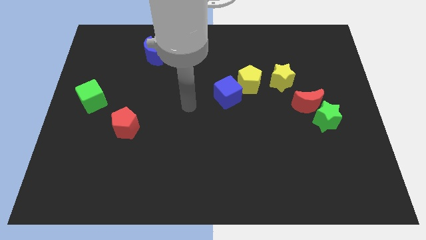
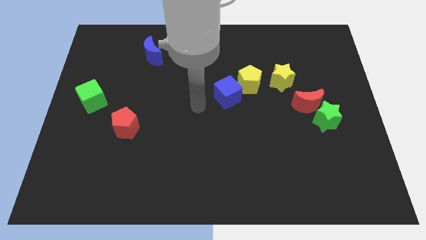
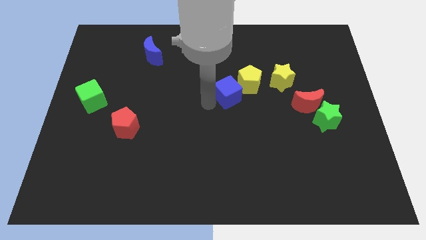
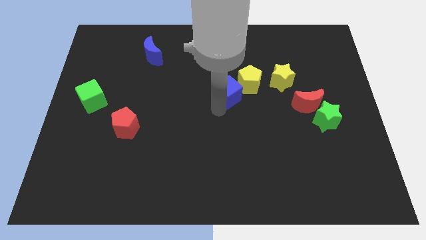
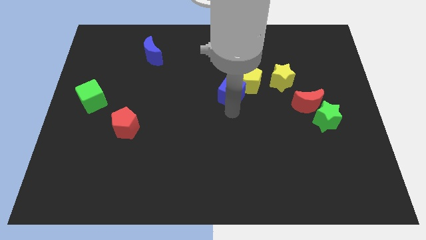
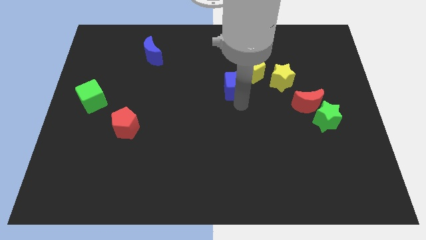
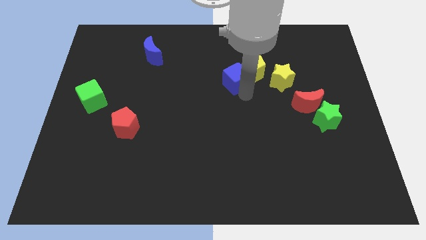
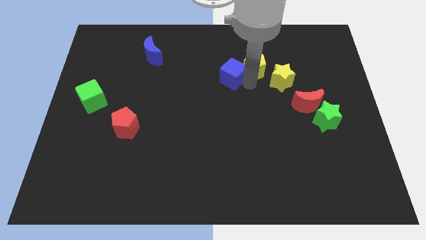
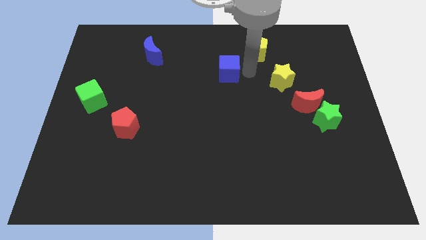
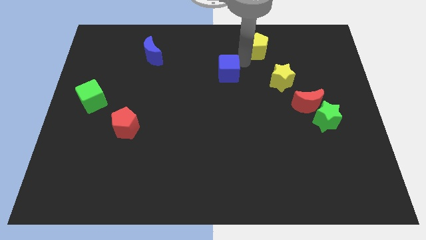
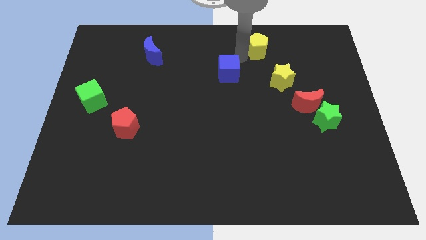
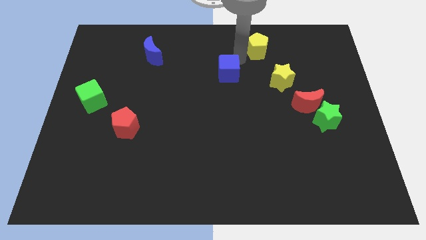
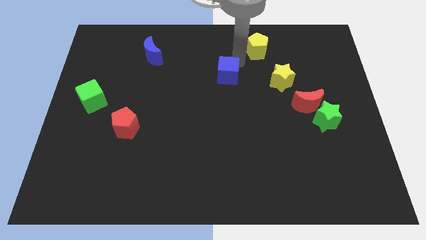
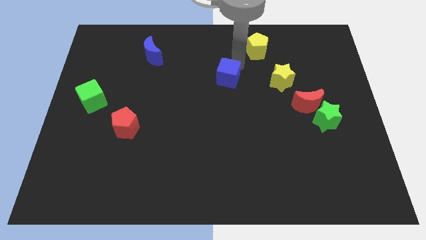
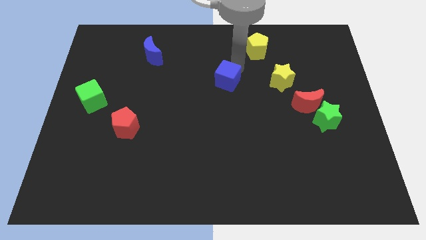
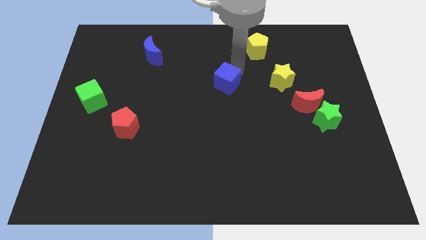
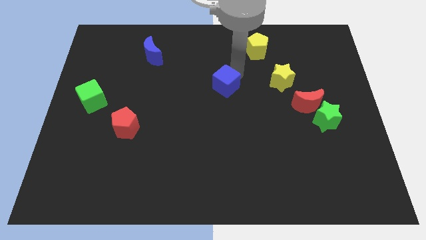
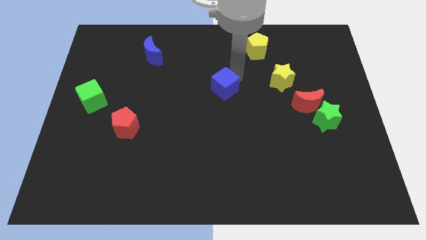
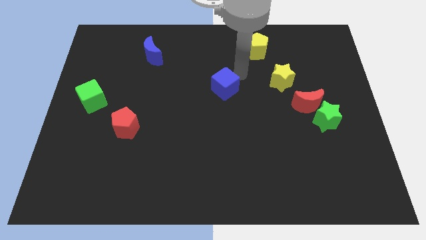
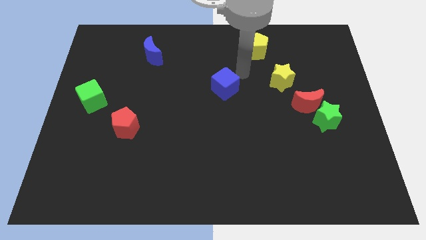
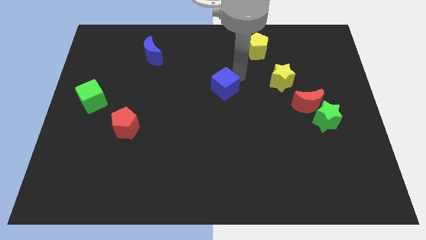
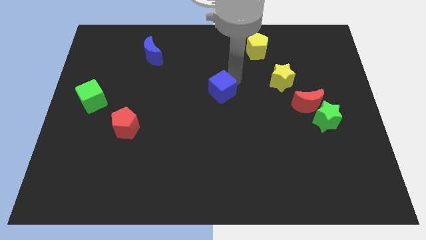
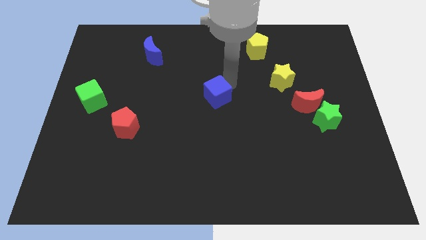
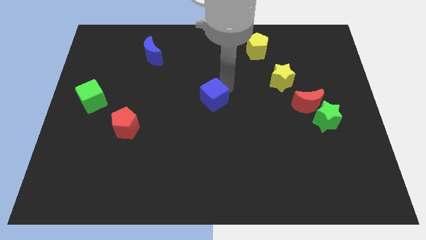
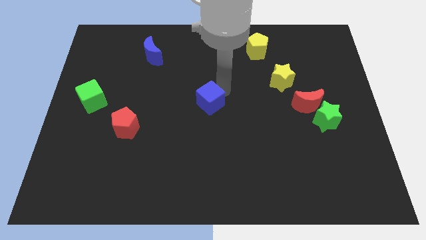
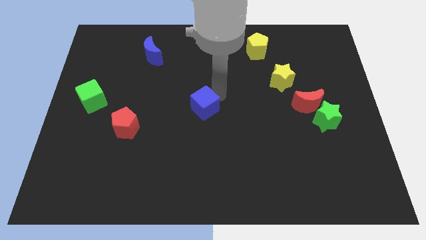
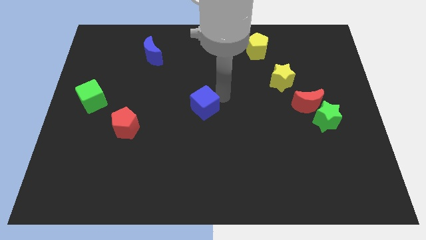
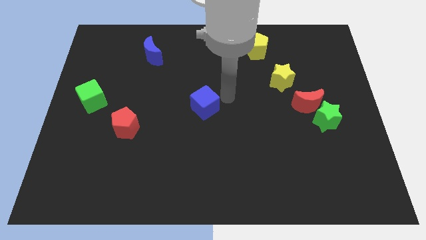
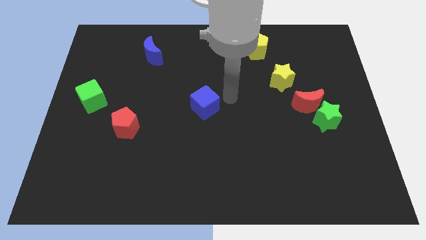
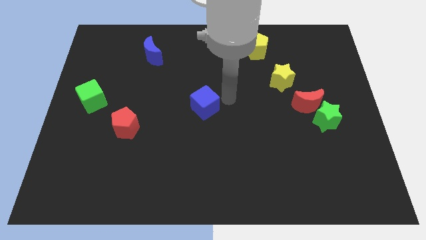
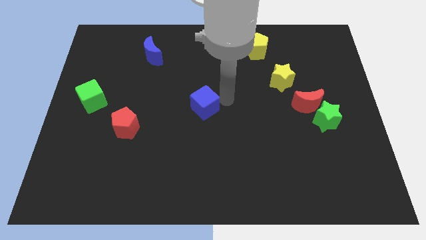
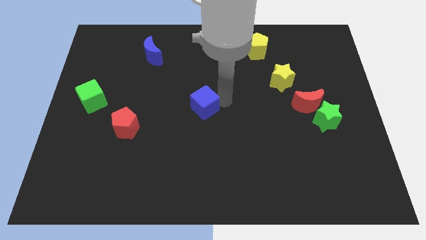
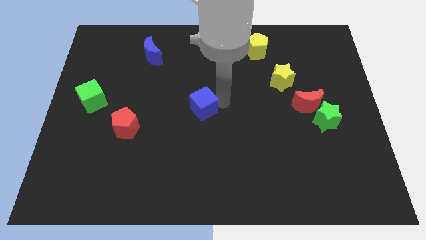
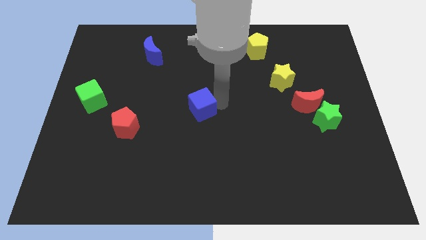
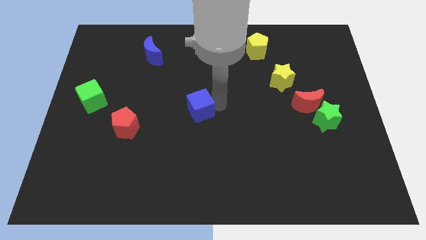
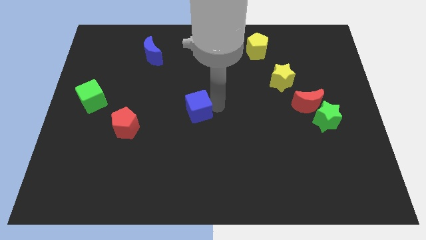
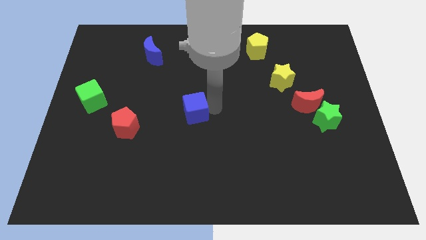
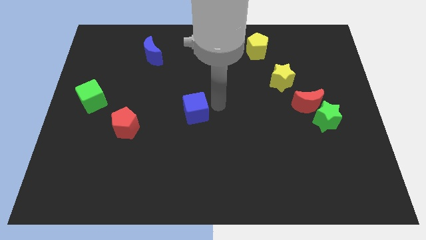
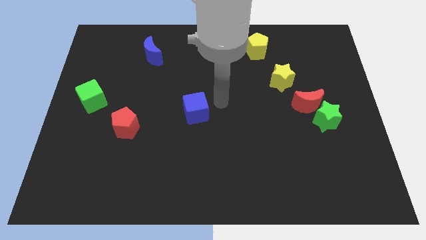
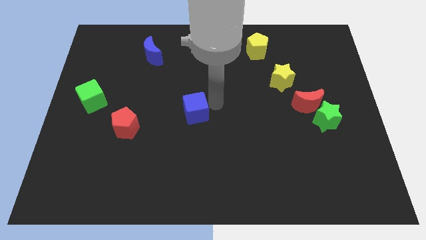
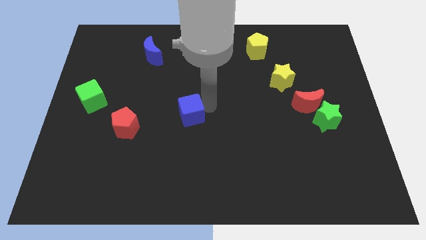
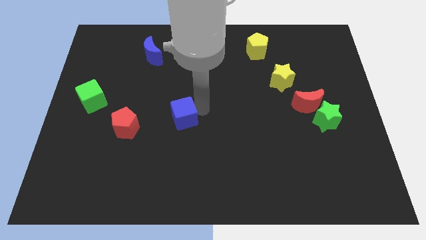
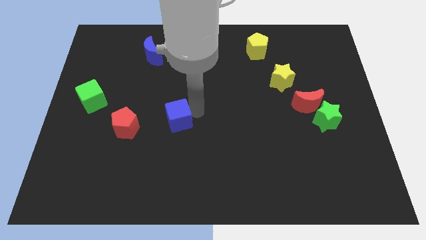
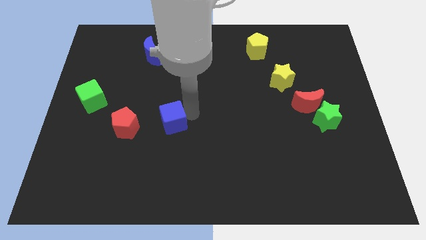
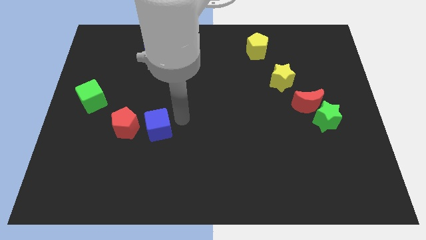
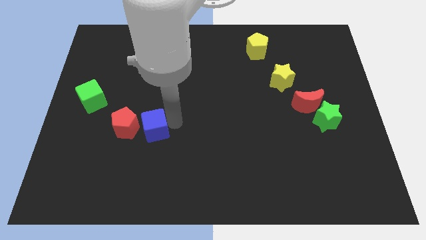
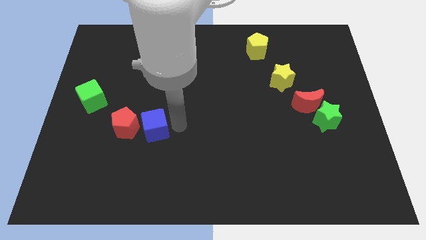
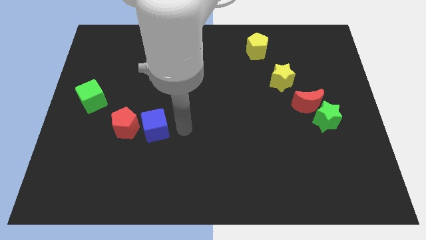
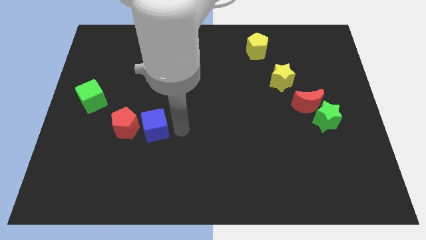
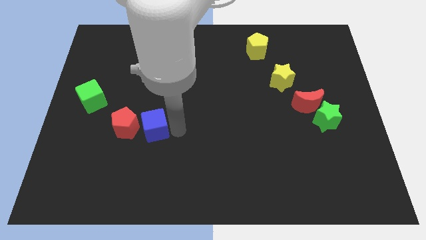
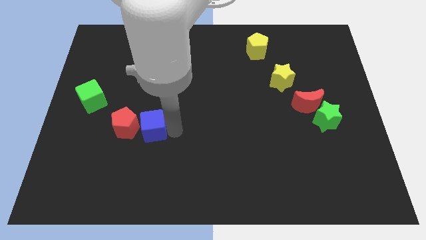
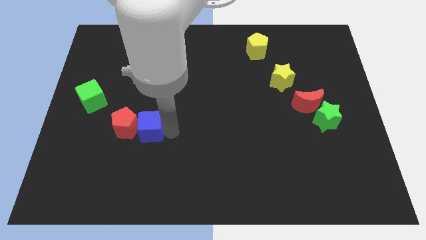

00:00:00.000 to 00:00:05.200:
put the blue cube to the red pentagon

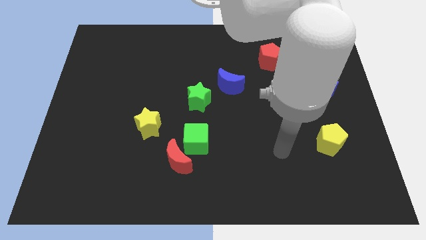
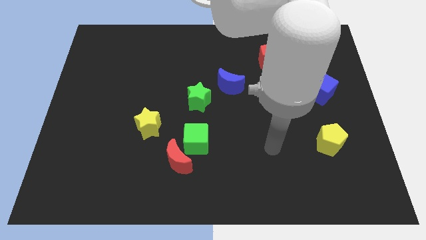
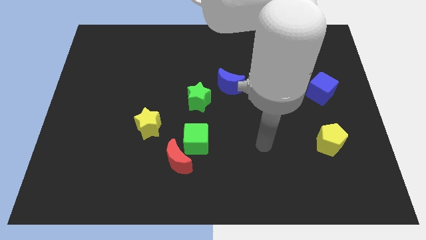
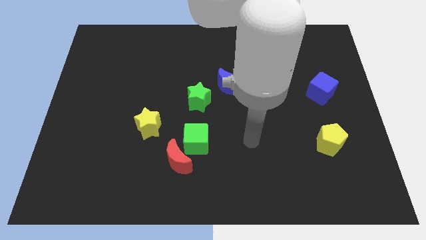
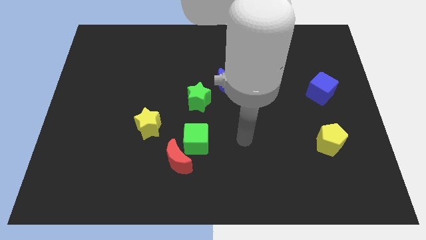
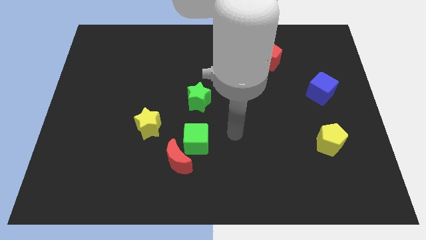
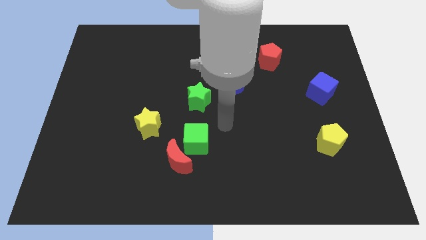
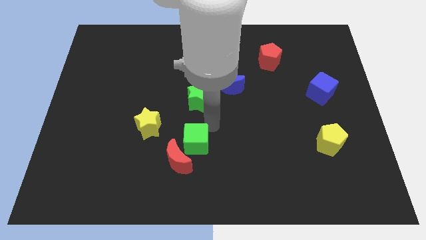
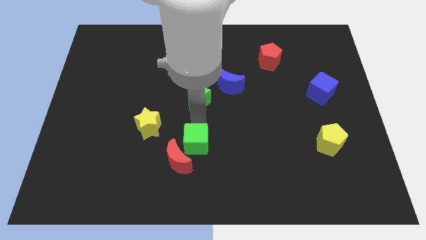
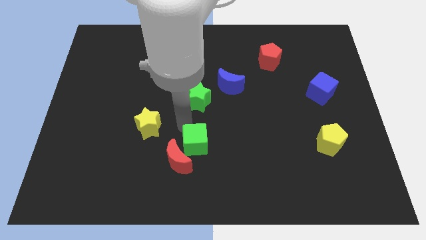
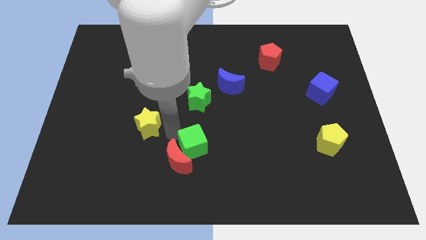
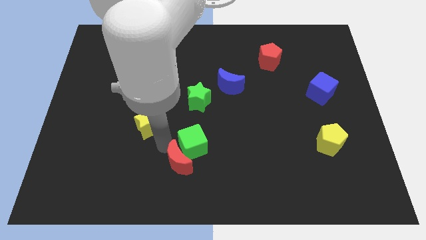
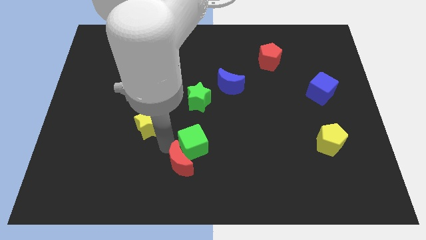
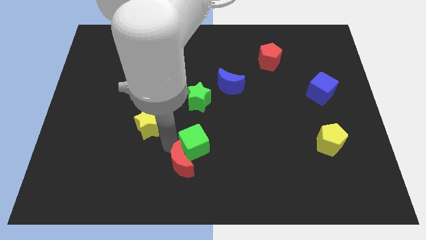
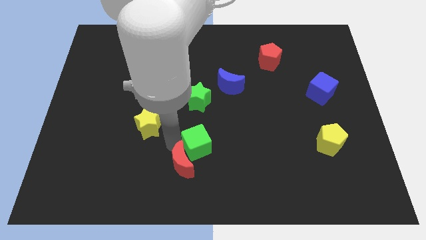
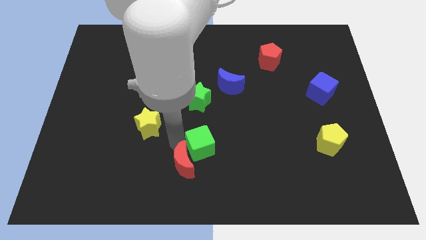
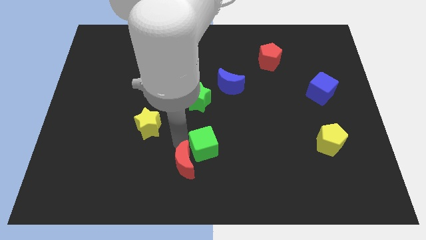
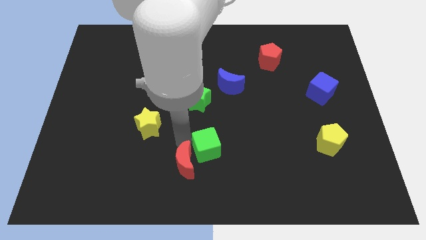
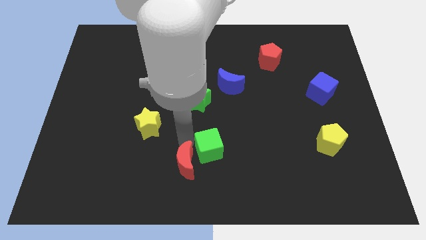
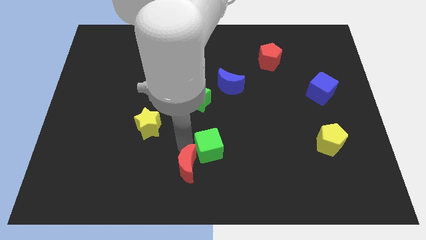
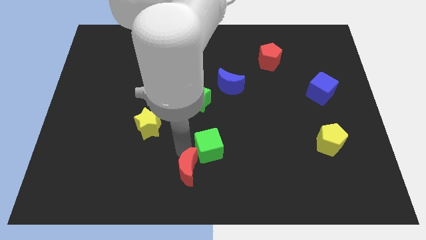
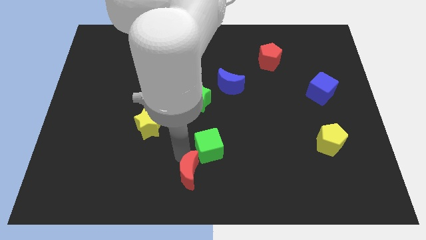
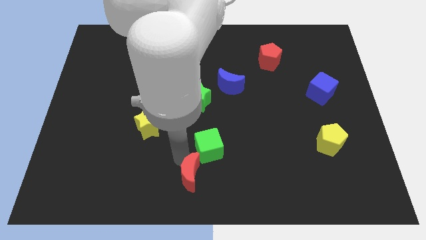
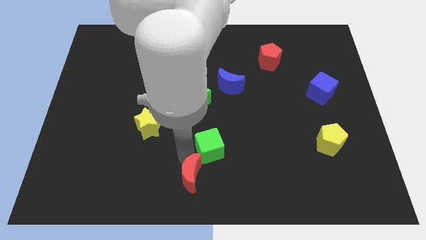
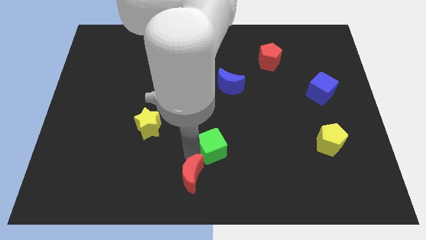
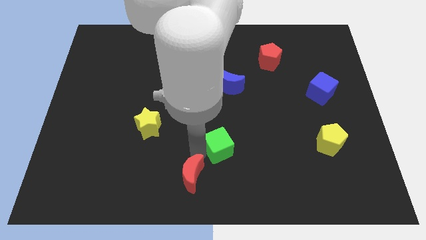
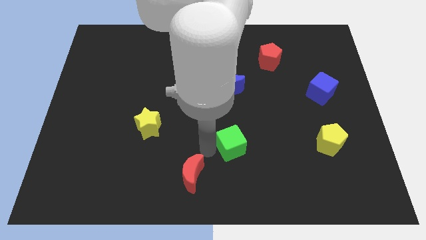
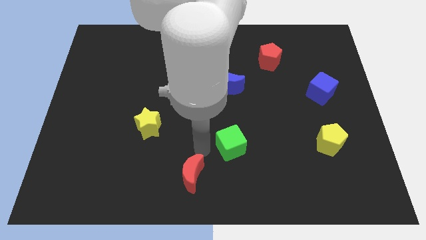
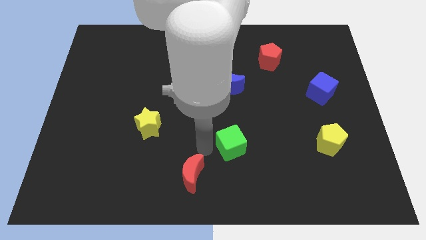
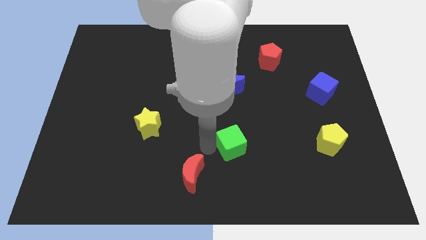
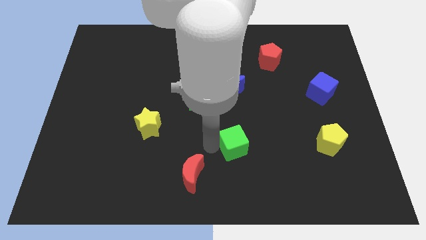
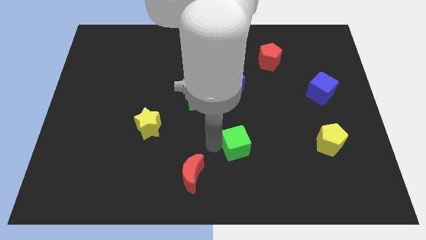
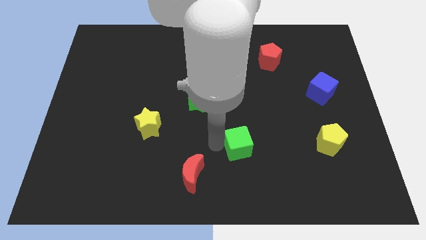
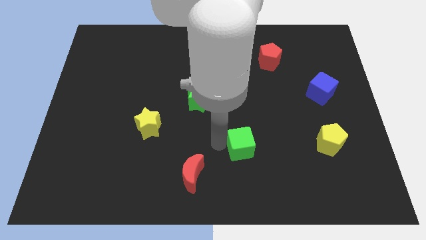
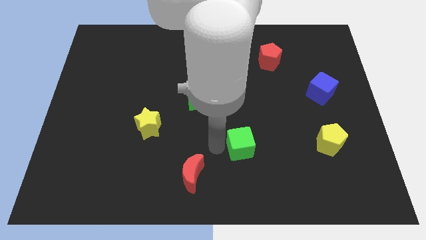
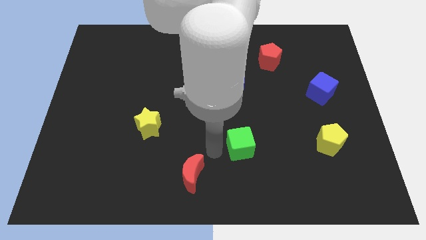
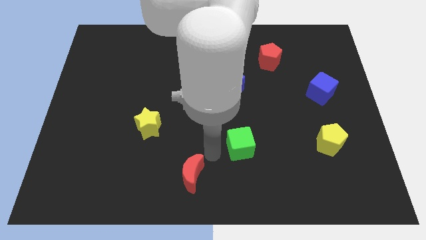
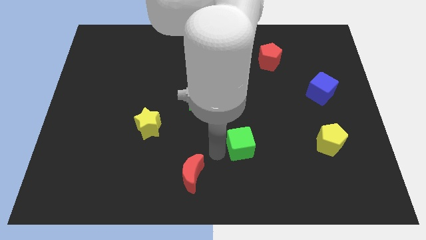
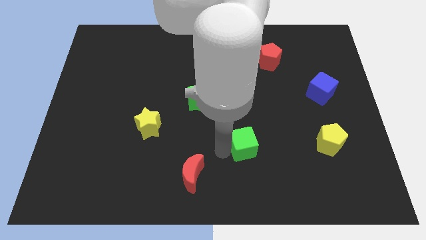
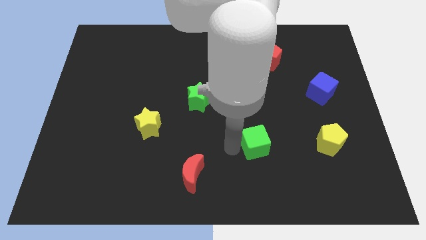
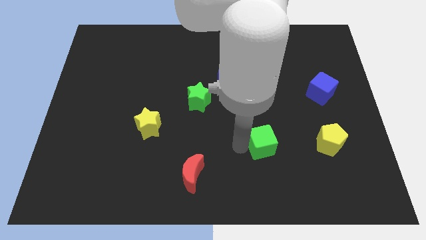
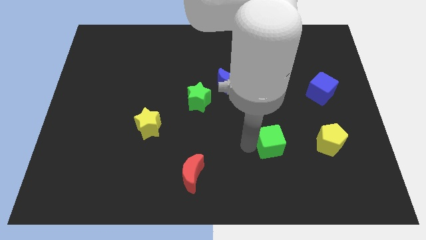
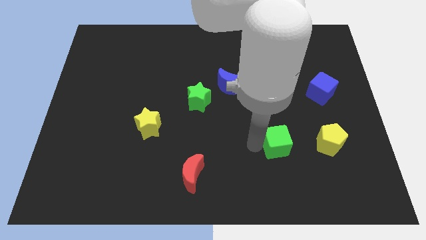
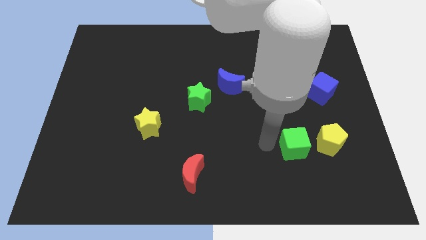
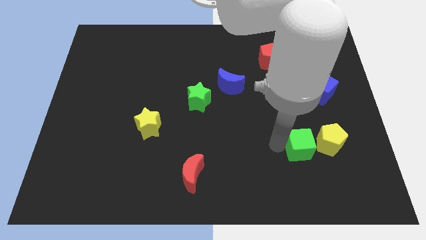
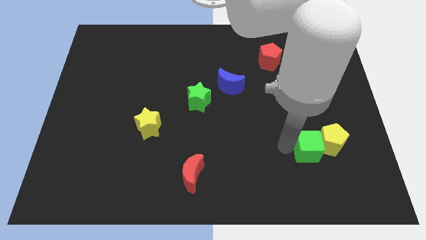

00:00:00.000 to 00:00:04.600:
slide the green cube next to the yellow pentagon
